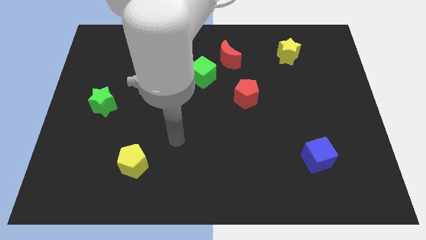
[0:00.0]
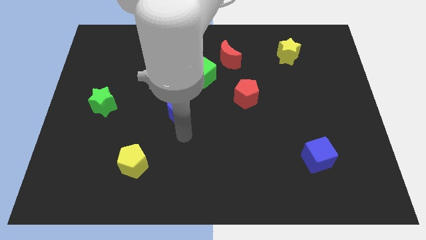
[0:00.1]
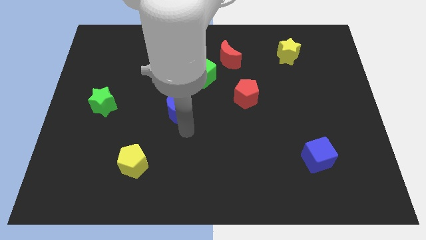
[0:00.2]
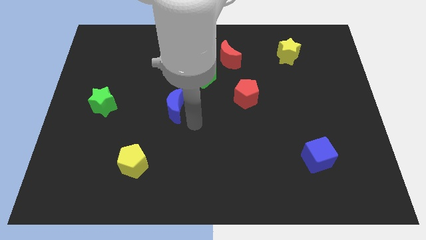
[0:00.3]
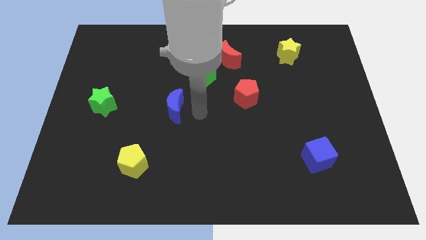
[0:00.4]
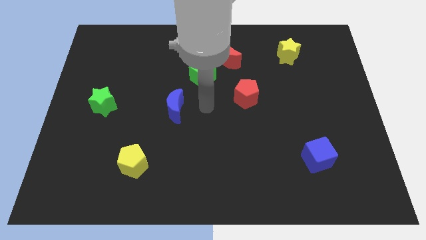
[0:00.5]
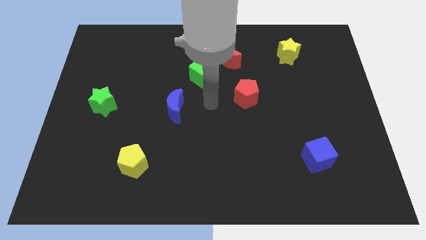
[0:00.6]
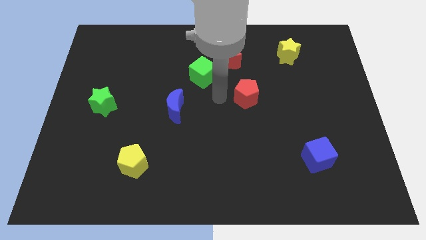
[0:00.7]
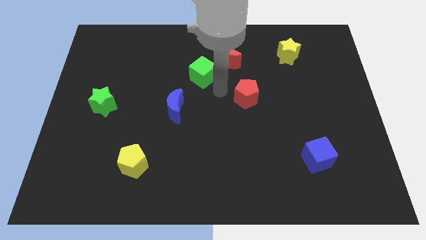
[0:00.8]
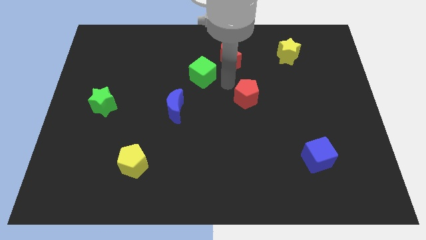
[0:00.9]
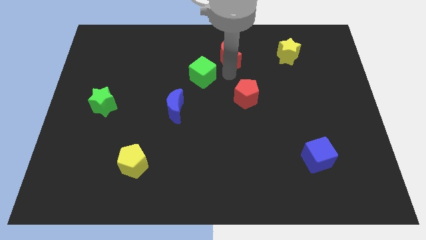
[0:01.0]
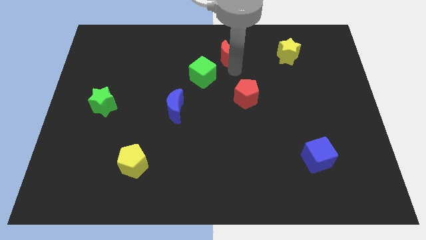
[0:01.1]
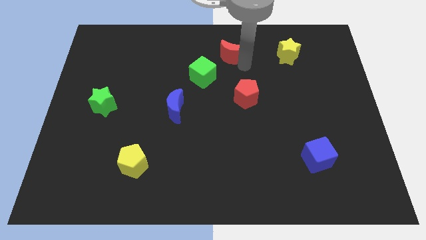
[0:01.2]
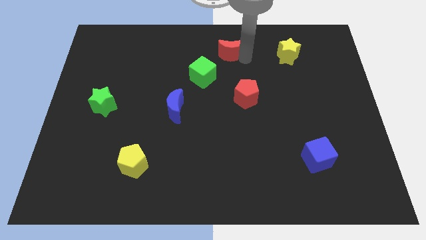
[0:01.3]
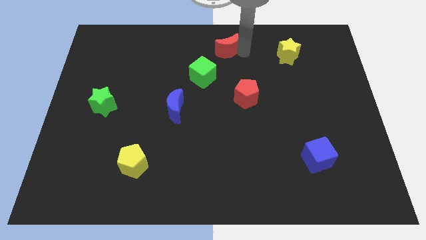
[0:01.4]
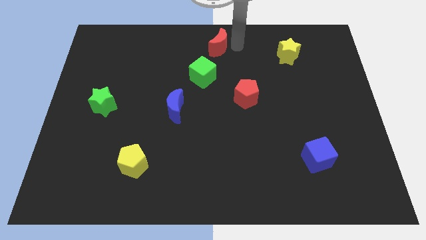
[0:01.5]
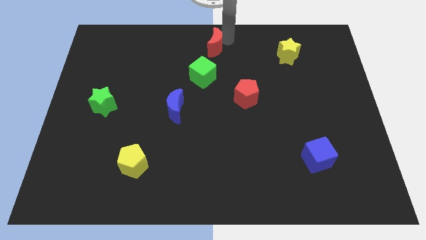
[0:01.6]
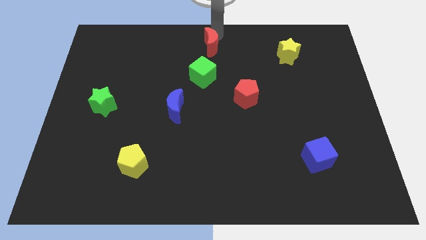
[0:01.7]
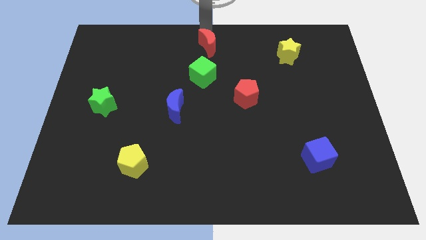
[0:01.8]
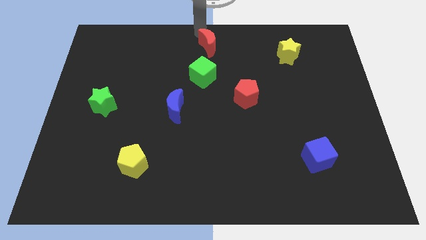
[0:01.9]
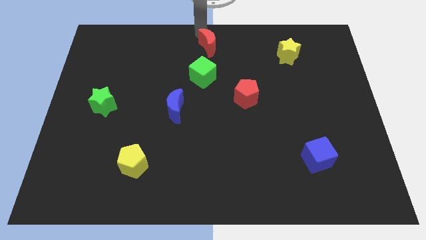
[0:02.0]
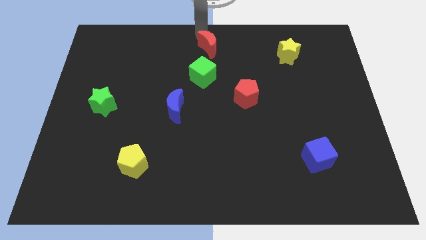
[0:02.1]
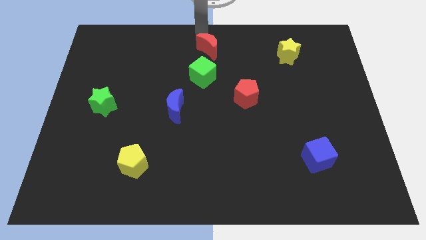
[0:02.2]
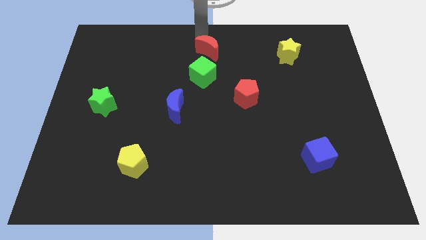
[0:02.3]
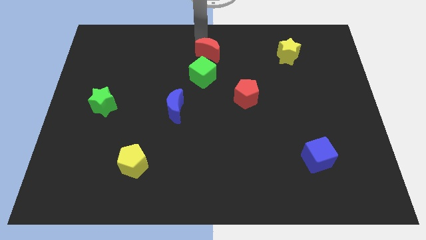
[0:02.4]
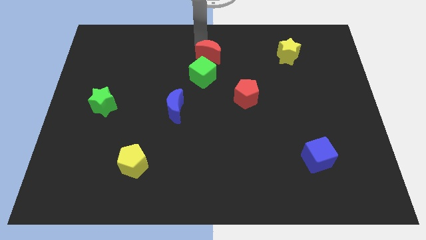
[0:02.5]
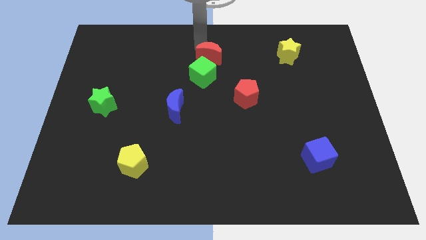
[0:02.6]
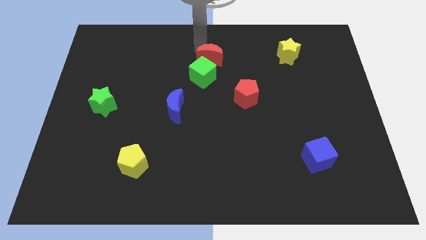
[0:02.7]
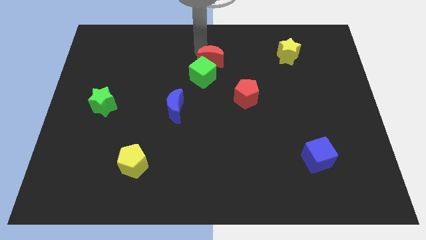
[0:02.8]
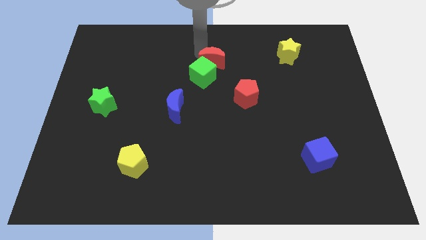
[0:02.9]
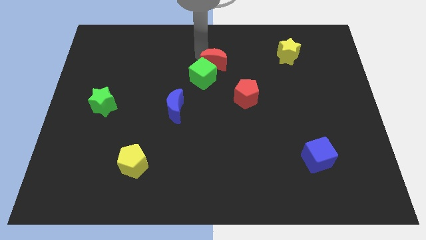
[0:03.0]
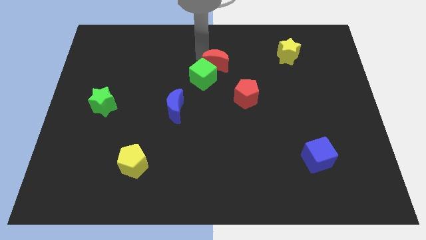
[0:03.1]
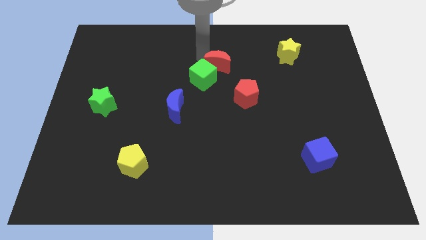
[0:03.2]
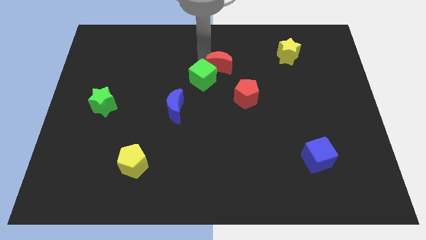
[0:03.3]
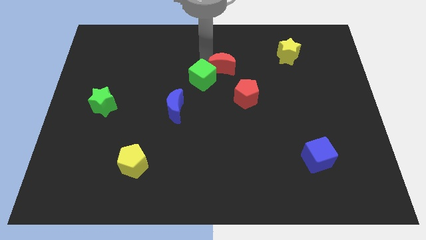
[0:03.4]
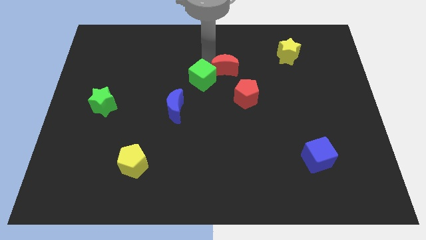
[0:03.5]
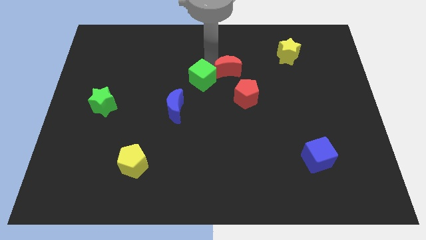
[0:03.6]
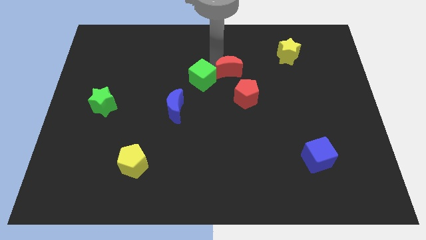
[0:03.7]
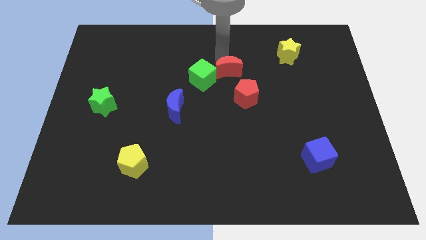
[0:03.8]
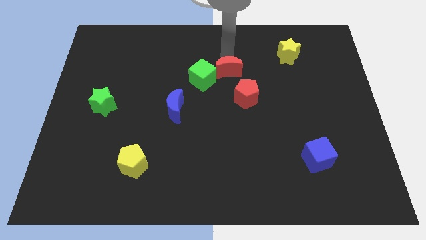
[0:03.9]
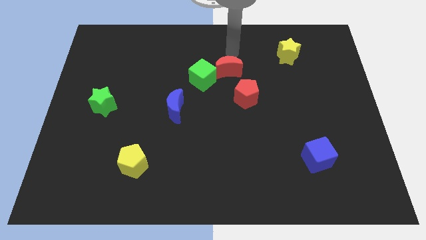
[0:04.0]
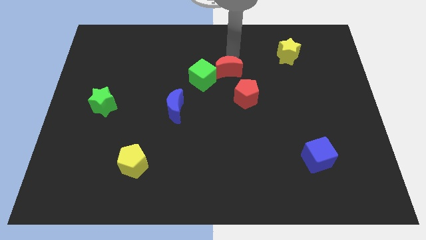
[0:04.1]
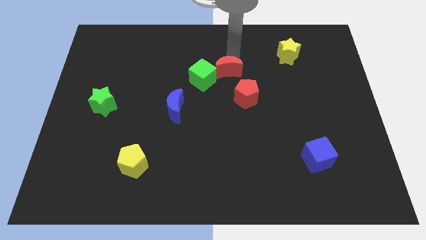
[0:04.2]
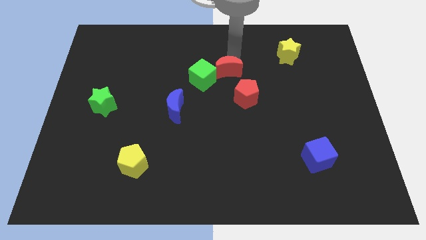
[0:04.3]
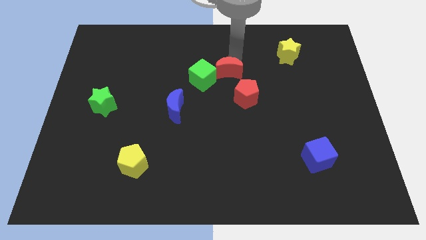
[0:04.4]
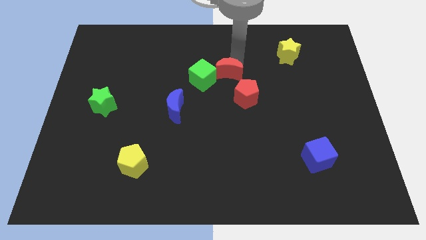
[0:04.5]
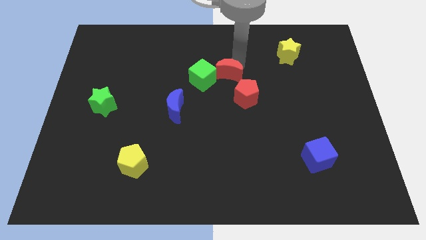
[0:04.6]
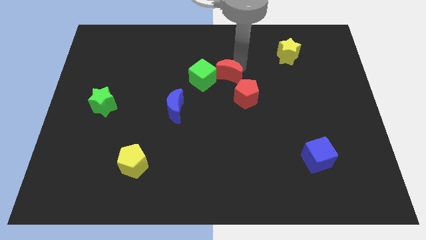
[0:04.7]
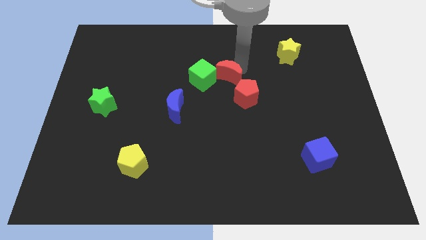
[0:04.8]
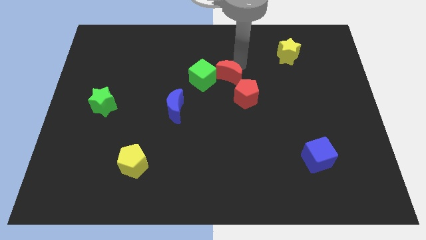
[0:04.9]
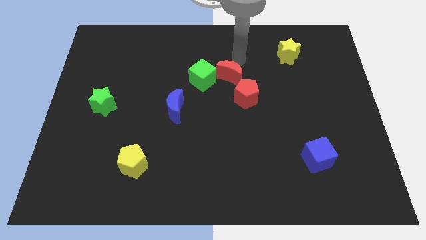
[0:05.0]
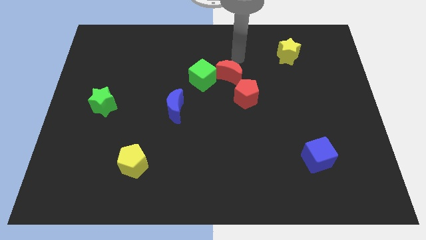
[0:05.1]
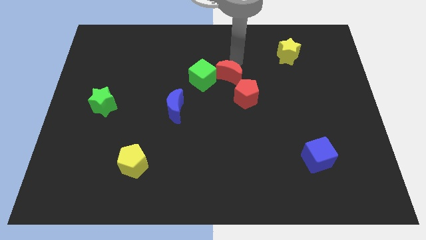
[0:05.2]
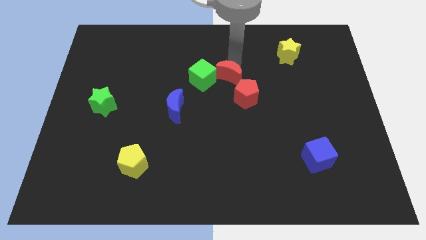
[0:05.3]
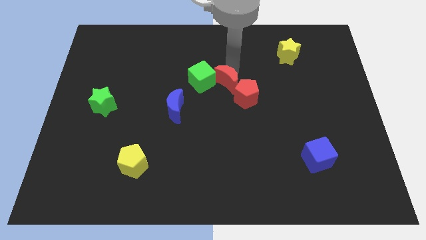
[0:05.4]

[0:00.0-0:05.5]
slightly slide the red moon down

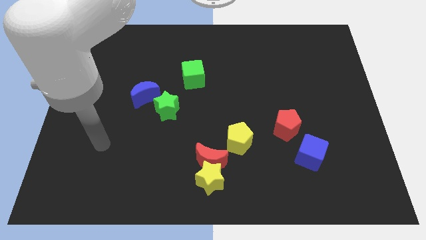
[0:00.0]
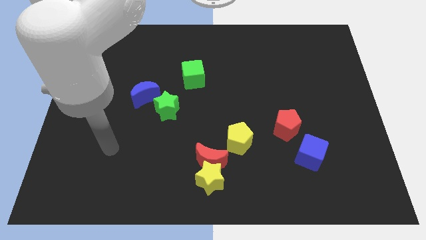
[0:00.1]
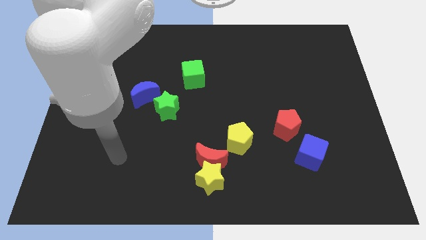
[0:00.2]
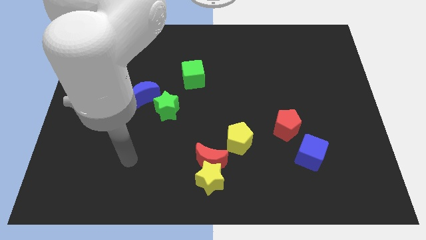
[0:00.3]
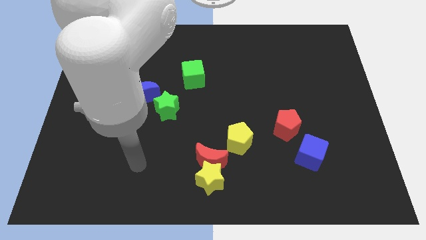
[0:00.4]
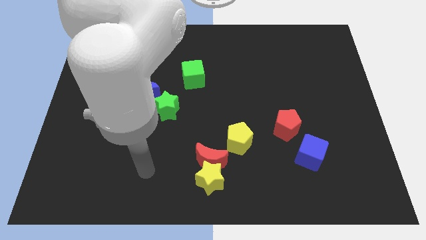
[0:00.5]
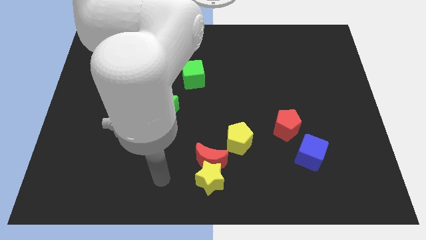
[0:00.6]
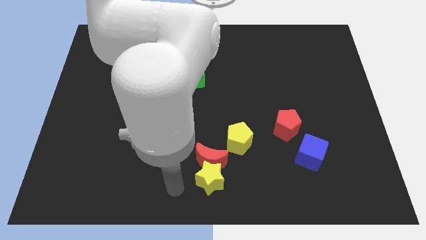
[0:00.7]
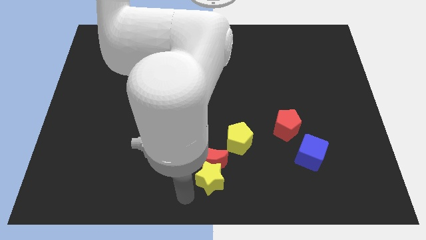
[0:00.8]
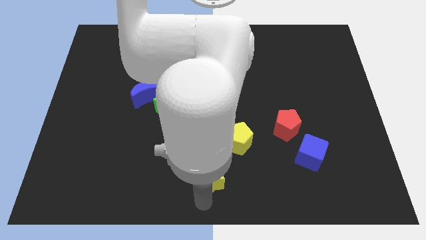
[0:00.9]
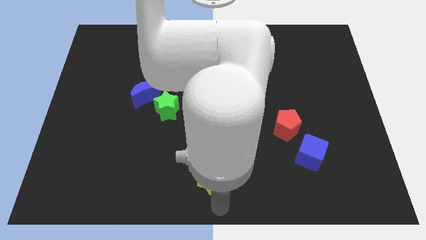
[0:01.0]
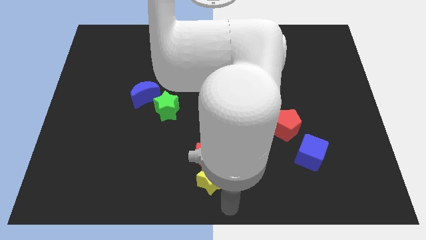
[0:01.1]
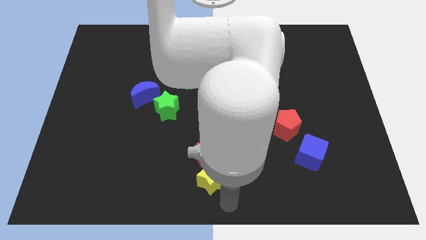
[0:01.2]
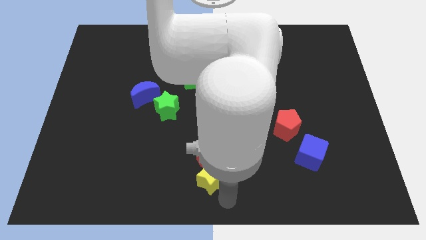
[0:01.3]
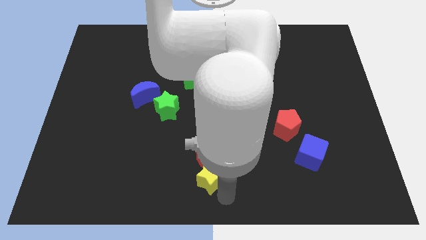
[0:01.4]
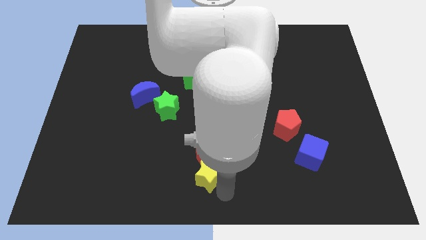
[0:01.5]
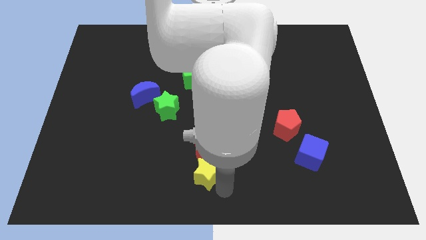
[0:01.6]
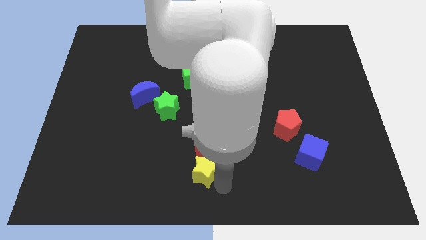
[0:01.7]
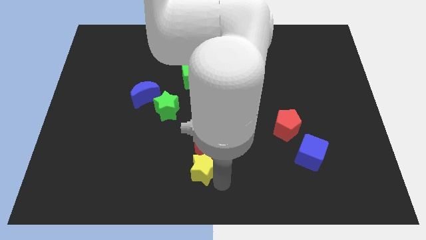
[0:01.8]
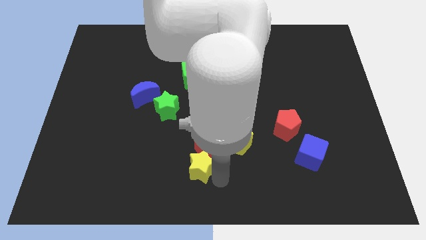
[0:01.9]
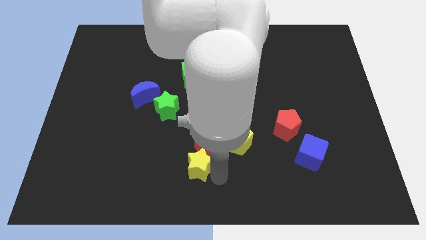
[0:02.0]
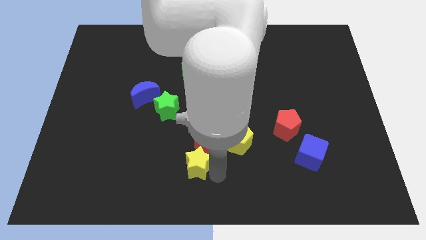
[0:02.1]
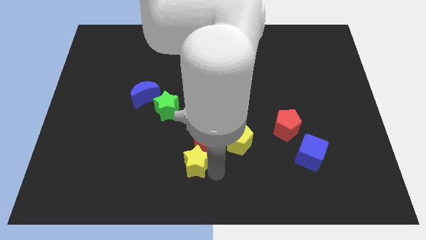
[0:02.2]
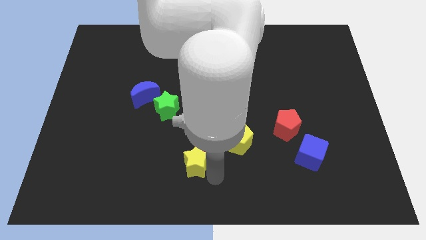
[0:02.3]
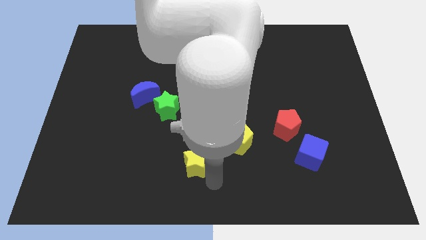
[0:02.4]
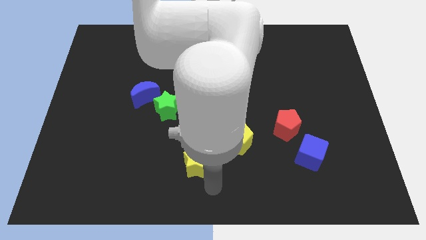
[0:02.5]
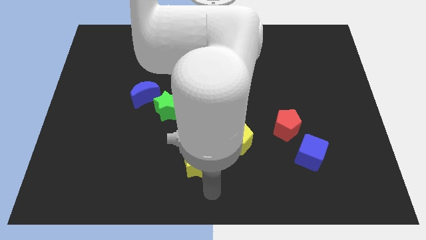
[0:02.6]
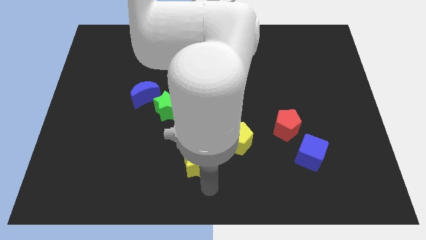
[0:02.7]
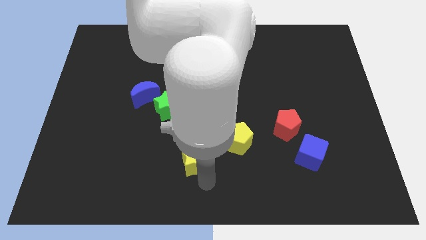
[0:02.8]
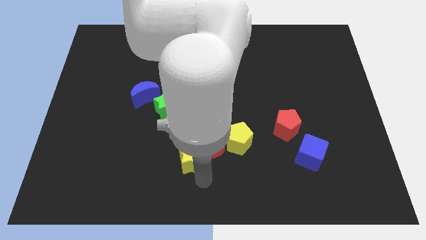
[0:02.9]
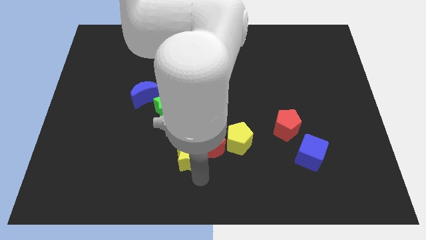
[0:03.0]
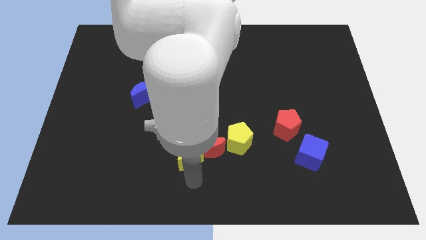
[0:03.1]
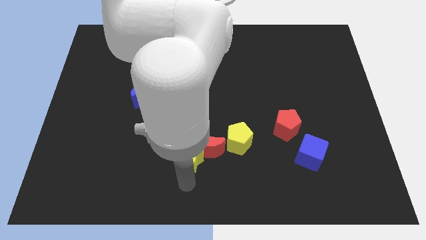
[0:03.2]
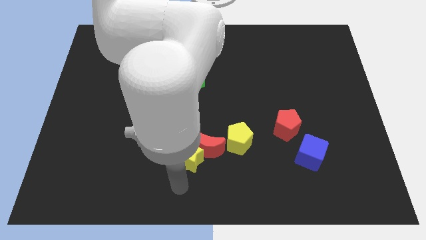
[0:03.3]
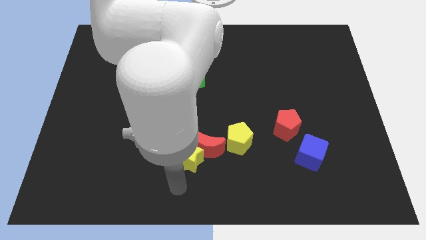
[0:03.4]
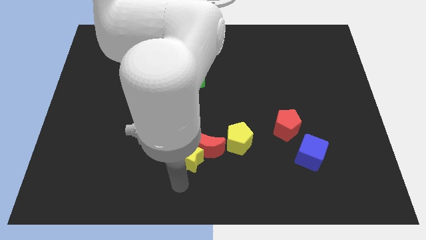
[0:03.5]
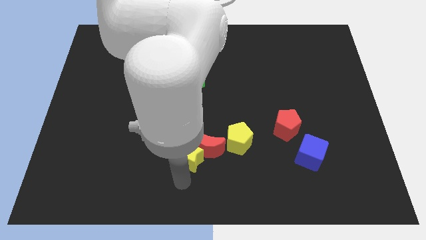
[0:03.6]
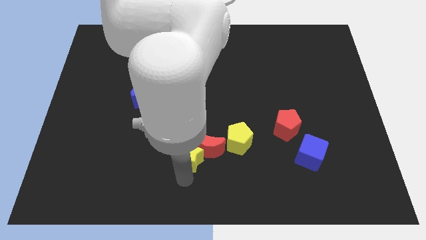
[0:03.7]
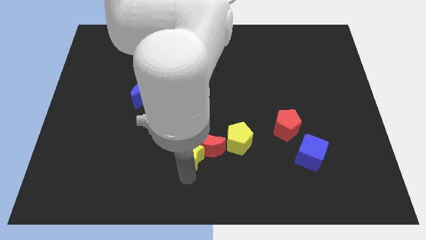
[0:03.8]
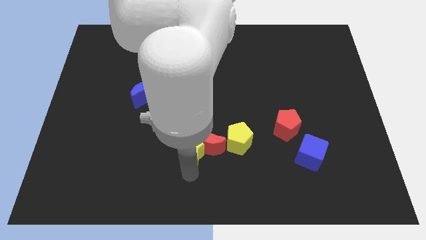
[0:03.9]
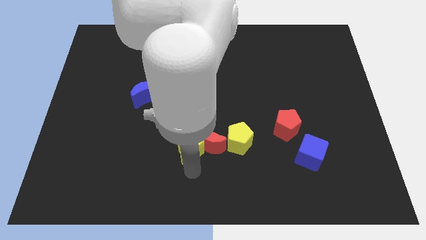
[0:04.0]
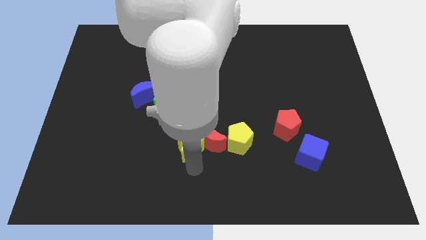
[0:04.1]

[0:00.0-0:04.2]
slightly move the yellow star upwards
